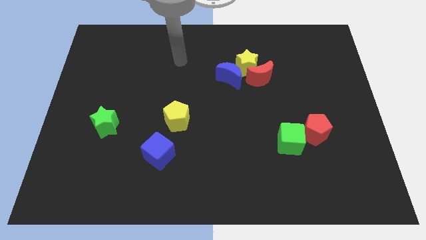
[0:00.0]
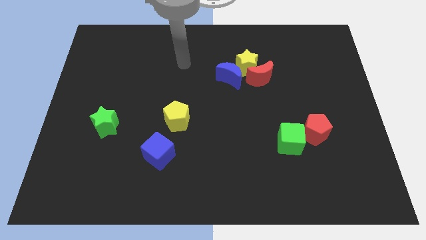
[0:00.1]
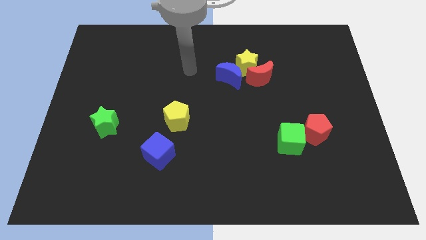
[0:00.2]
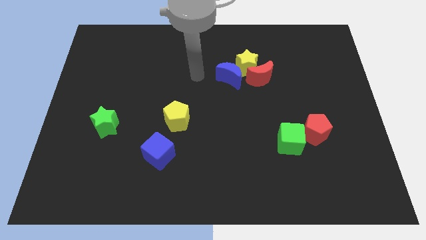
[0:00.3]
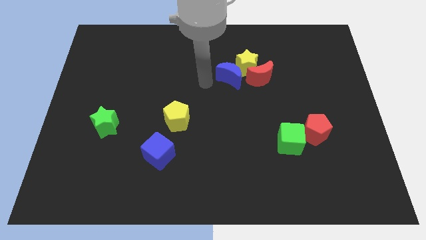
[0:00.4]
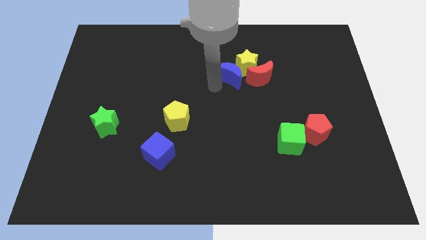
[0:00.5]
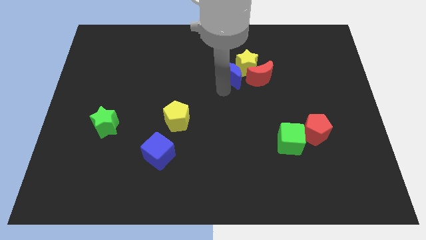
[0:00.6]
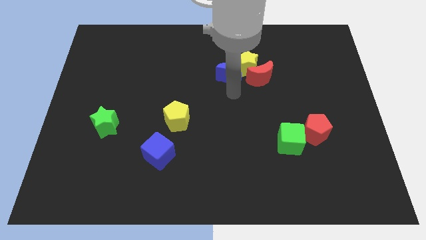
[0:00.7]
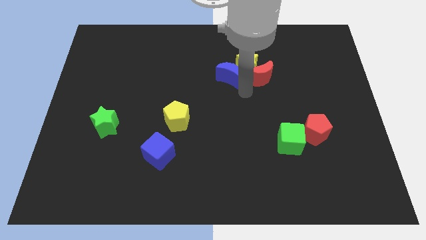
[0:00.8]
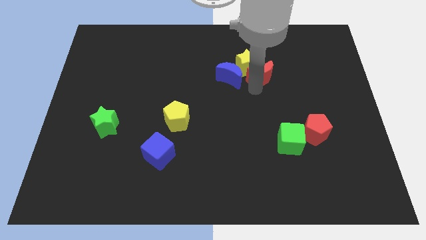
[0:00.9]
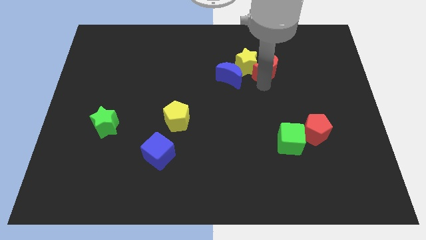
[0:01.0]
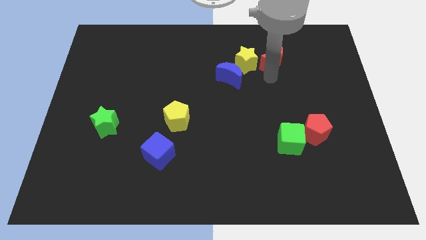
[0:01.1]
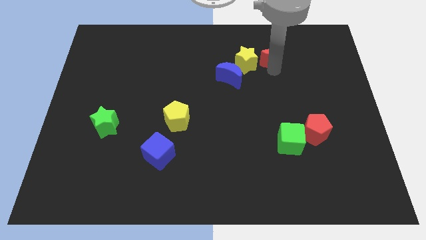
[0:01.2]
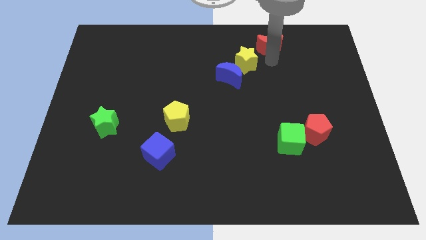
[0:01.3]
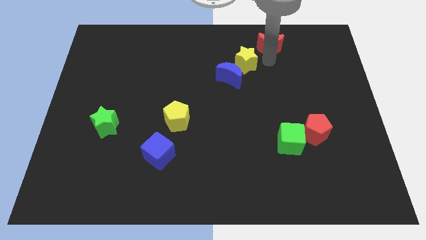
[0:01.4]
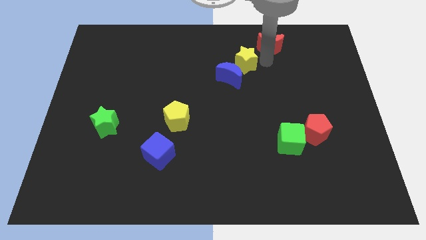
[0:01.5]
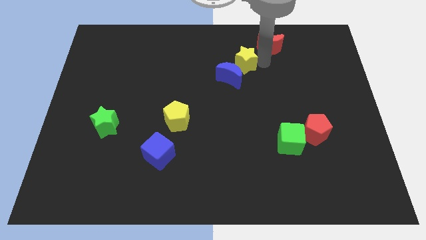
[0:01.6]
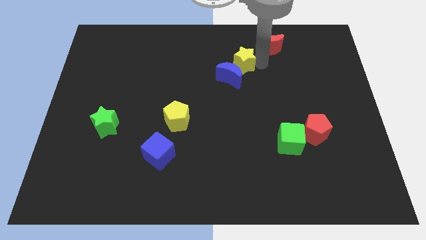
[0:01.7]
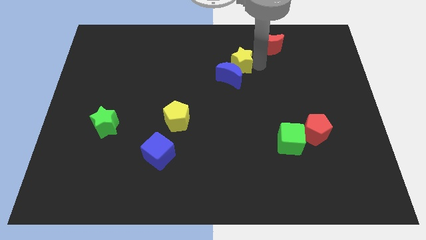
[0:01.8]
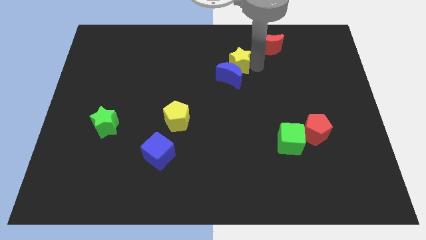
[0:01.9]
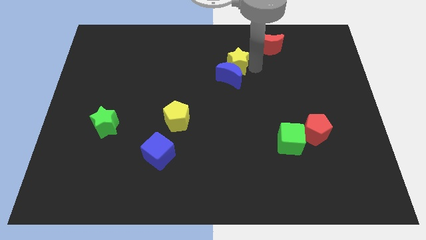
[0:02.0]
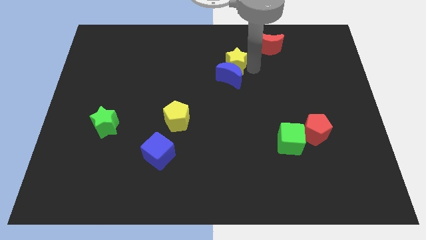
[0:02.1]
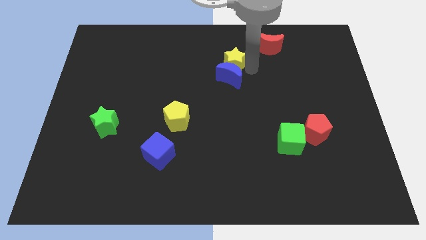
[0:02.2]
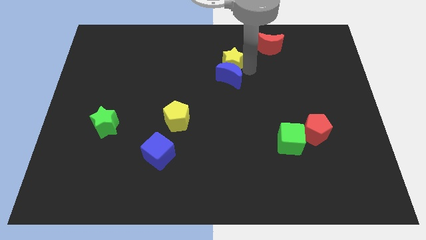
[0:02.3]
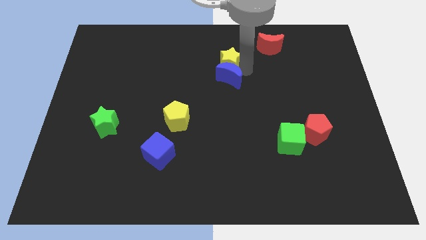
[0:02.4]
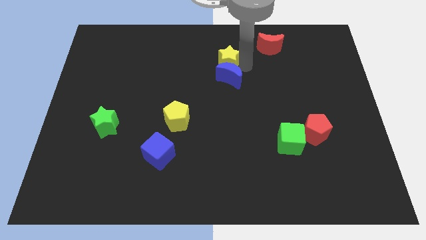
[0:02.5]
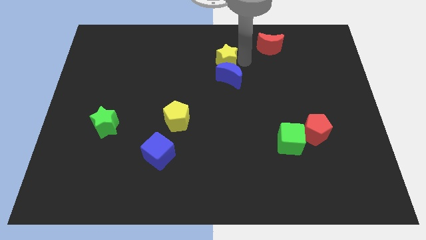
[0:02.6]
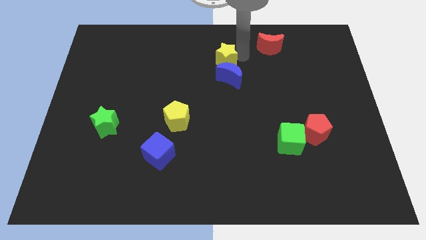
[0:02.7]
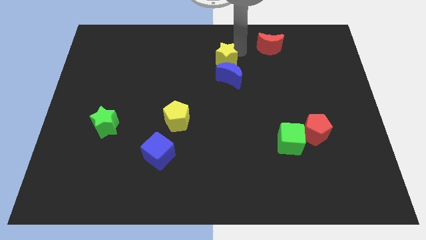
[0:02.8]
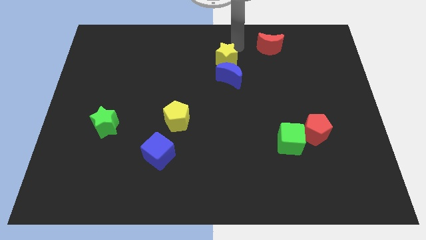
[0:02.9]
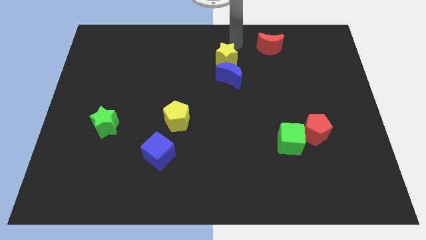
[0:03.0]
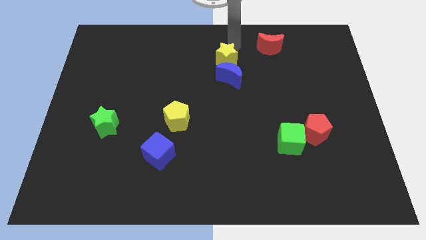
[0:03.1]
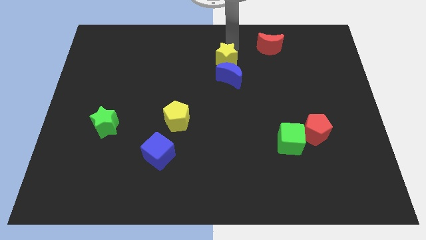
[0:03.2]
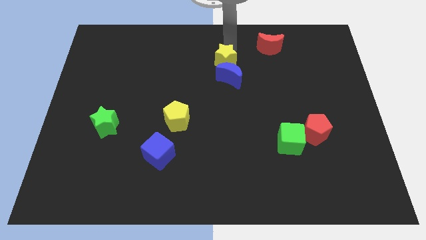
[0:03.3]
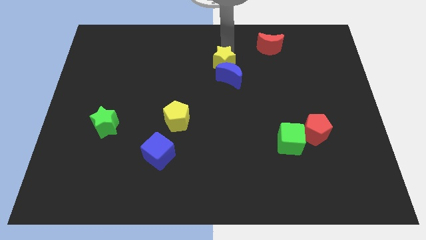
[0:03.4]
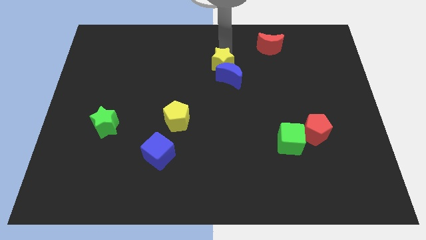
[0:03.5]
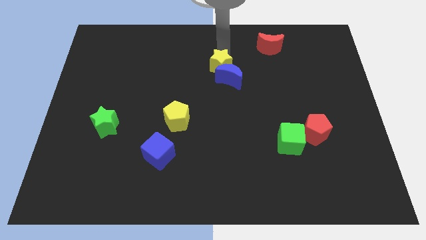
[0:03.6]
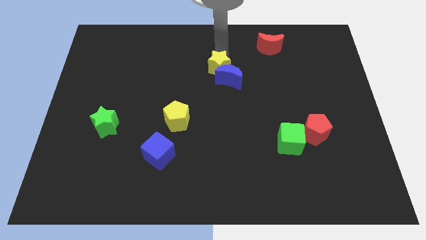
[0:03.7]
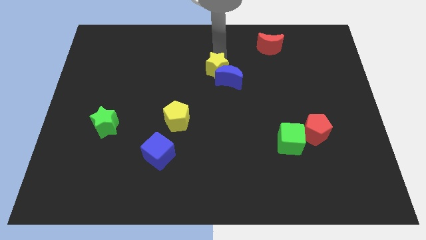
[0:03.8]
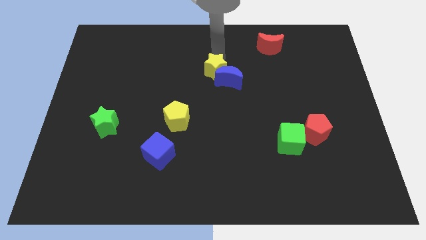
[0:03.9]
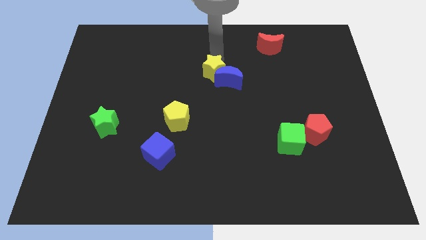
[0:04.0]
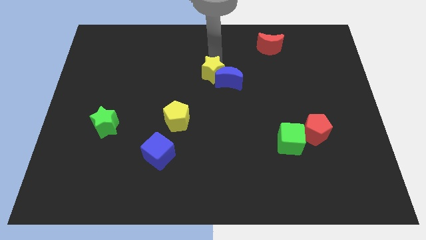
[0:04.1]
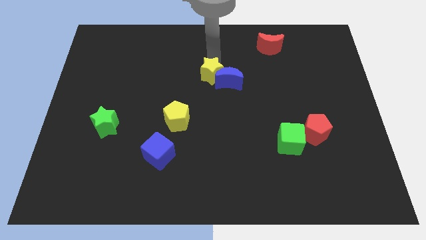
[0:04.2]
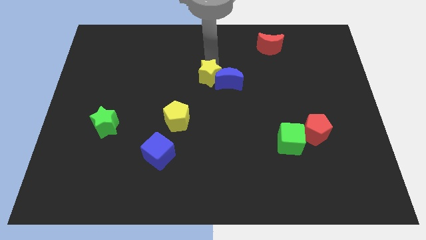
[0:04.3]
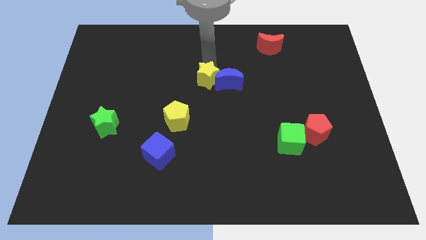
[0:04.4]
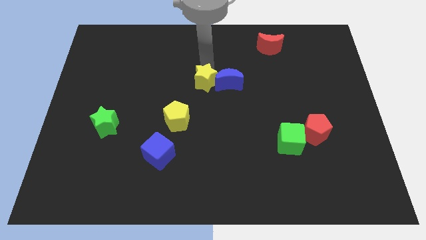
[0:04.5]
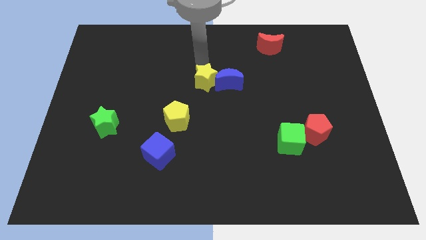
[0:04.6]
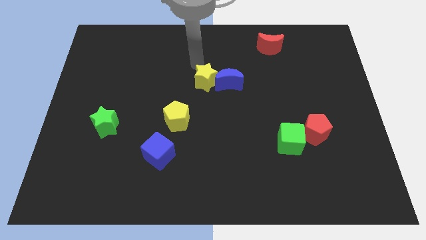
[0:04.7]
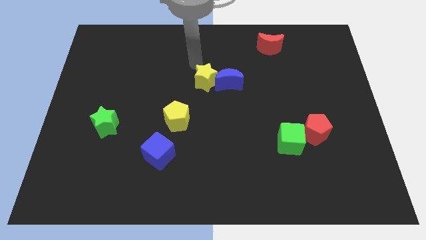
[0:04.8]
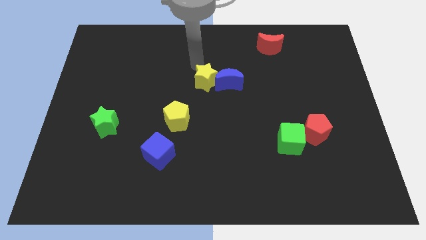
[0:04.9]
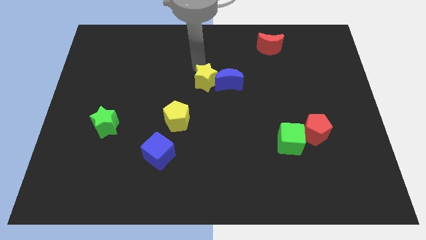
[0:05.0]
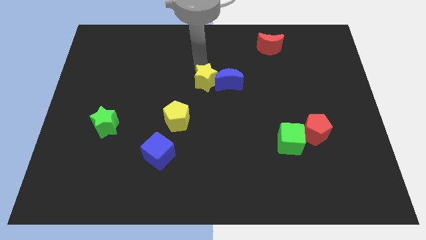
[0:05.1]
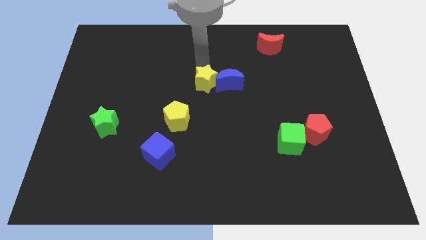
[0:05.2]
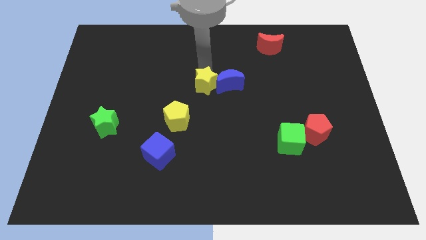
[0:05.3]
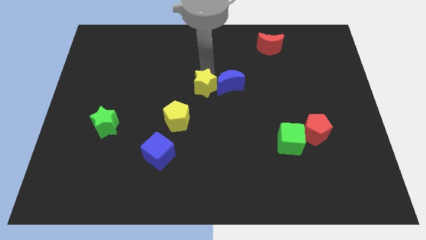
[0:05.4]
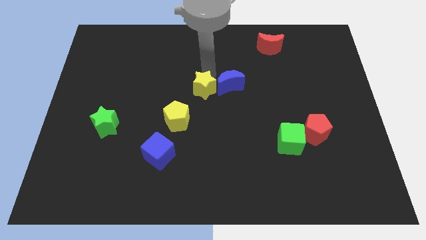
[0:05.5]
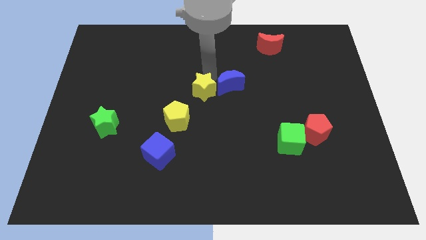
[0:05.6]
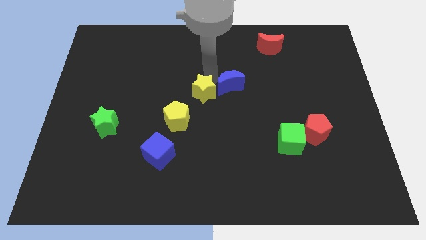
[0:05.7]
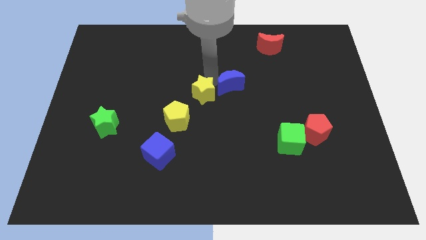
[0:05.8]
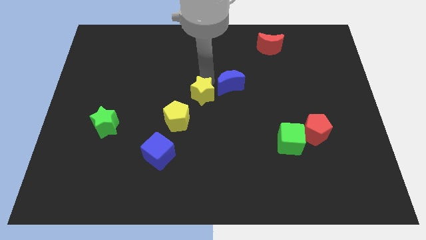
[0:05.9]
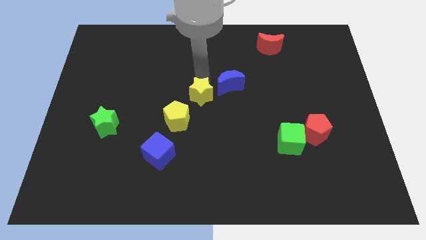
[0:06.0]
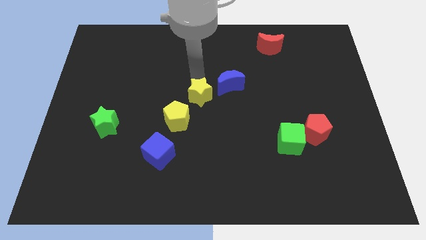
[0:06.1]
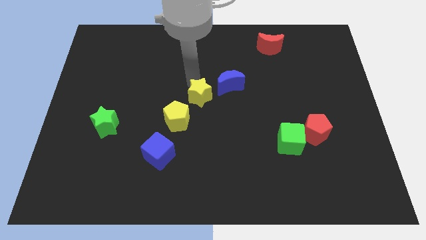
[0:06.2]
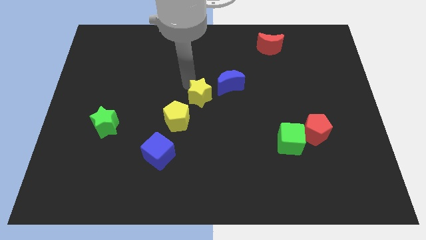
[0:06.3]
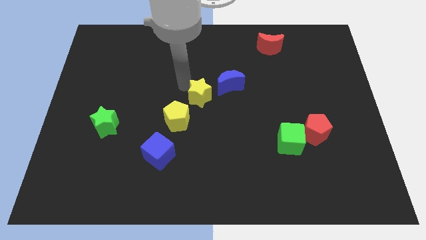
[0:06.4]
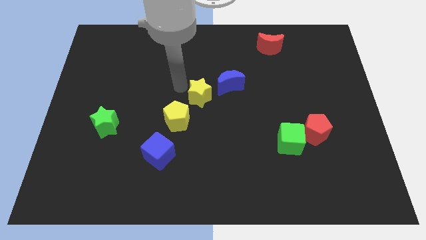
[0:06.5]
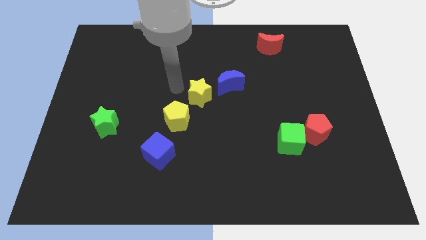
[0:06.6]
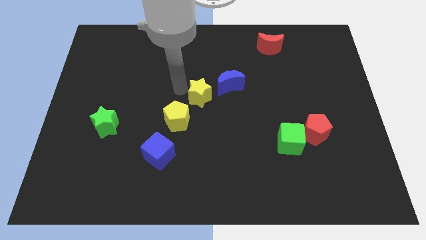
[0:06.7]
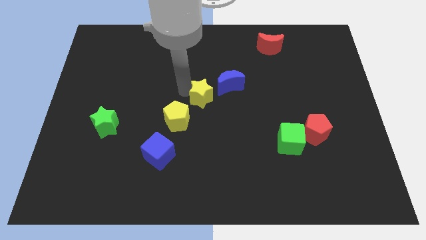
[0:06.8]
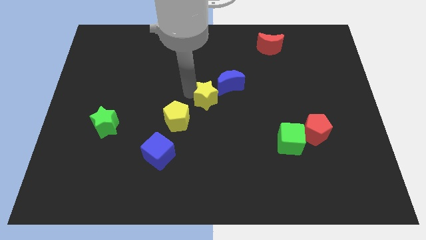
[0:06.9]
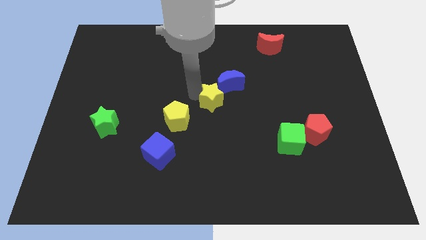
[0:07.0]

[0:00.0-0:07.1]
move the yellow star to the bottom of the blue moon
